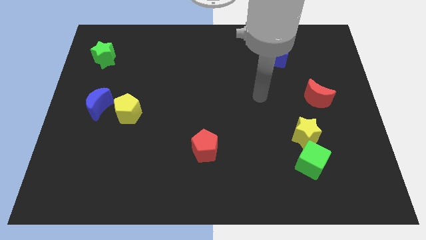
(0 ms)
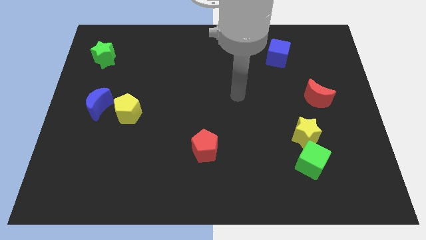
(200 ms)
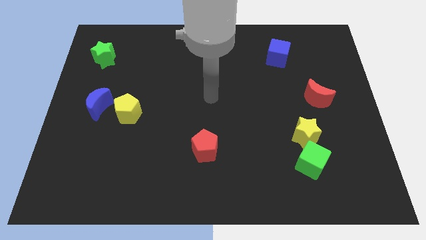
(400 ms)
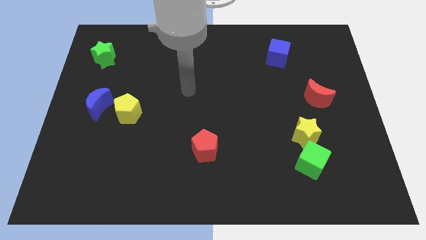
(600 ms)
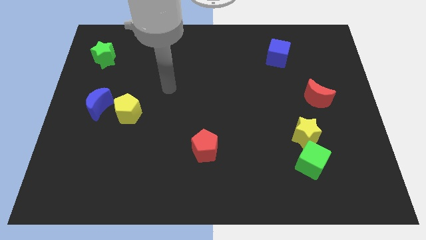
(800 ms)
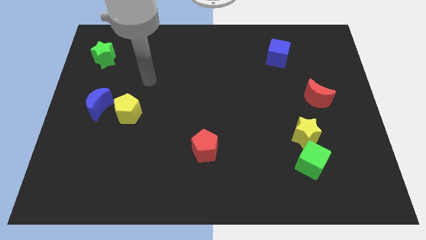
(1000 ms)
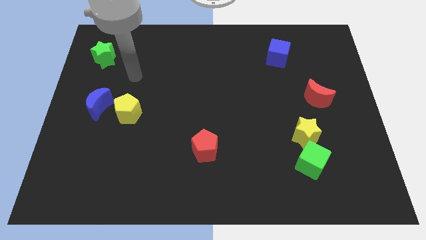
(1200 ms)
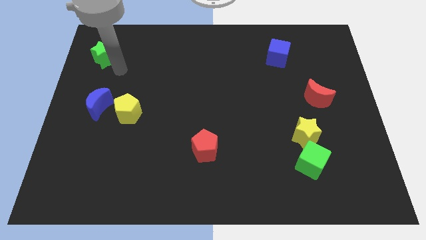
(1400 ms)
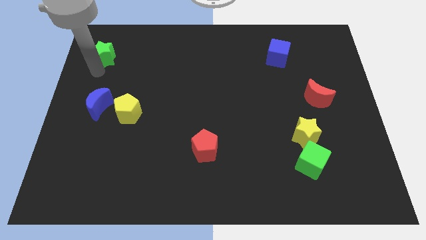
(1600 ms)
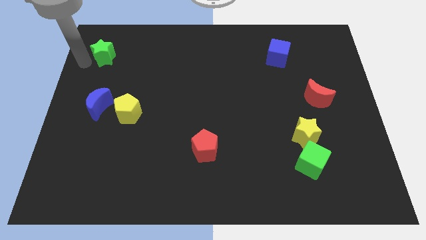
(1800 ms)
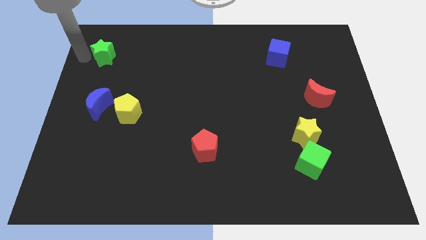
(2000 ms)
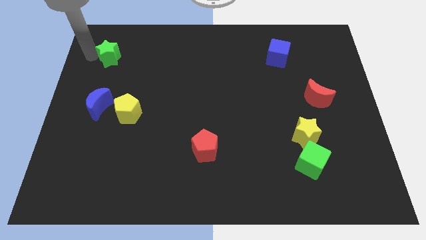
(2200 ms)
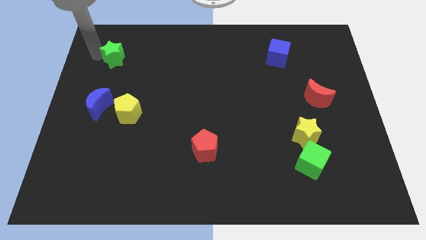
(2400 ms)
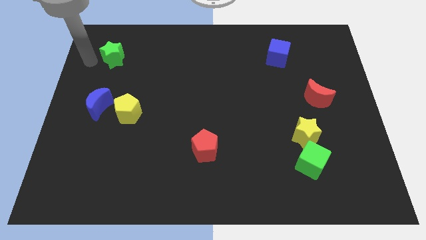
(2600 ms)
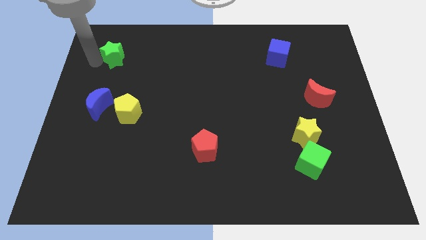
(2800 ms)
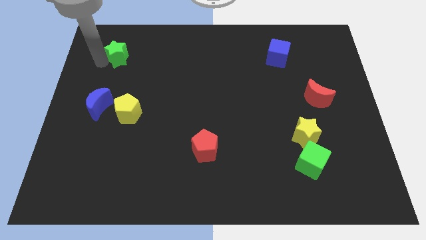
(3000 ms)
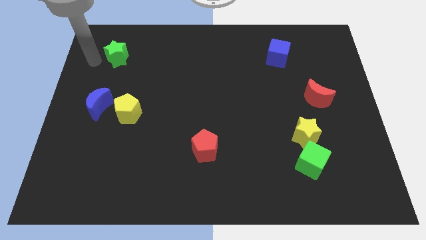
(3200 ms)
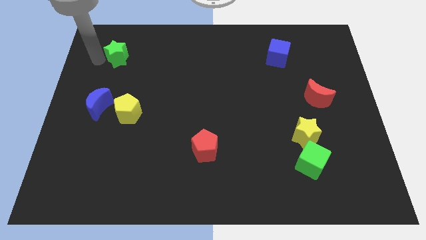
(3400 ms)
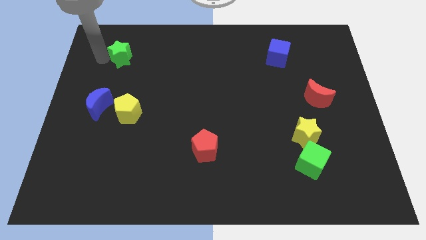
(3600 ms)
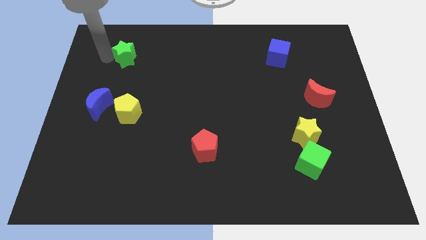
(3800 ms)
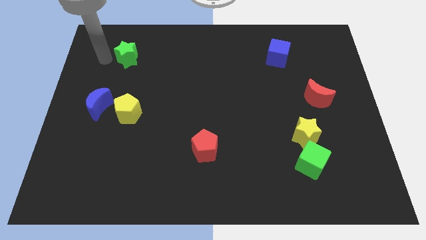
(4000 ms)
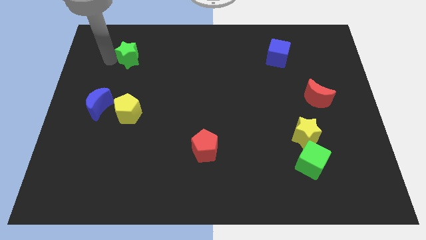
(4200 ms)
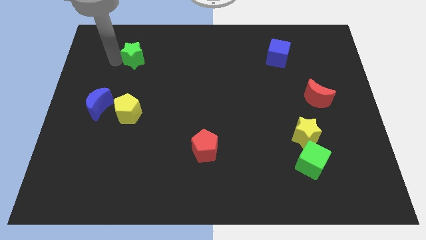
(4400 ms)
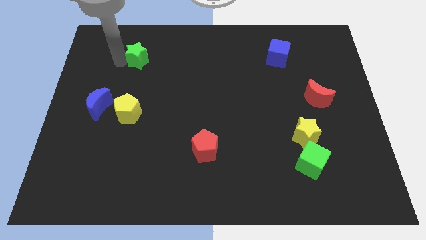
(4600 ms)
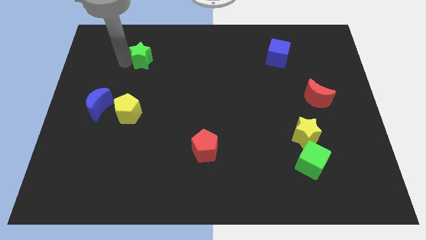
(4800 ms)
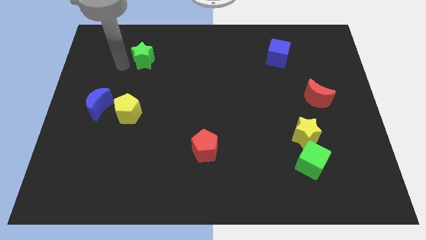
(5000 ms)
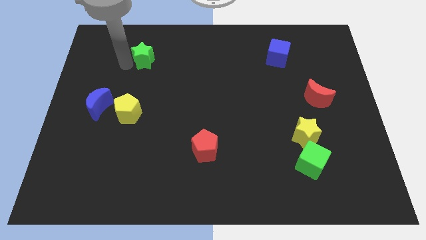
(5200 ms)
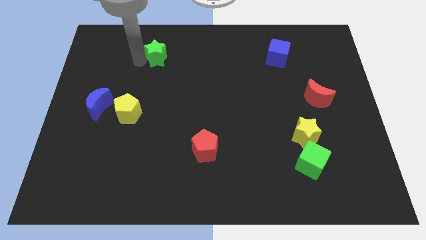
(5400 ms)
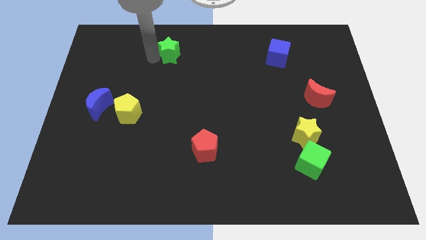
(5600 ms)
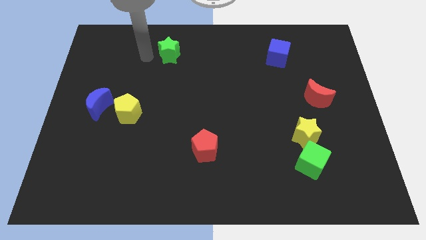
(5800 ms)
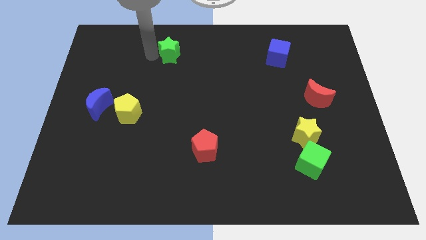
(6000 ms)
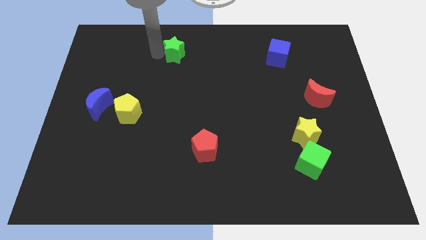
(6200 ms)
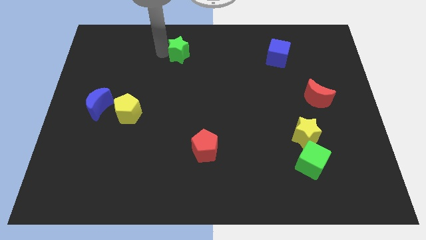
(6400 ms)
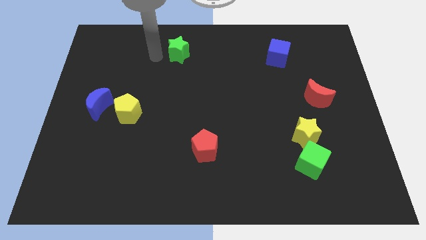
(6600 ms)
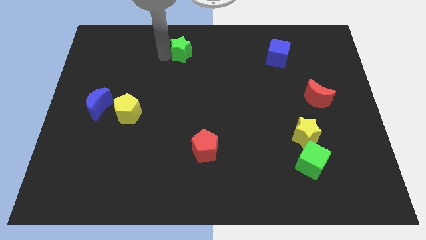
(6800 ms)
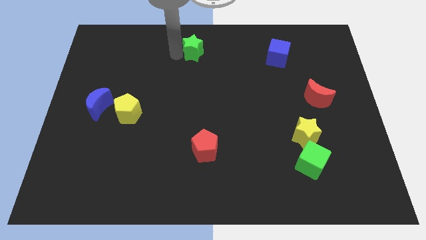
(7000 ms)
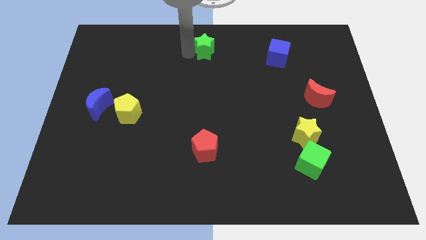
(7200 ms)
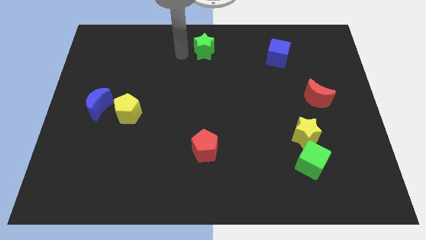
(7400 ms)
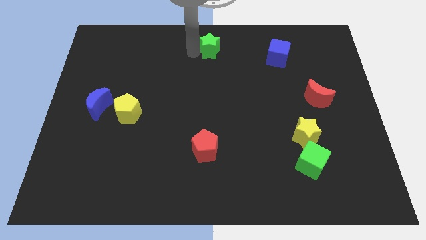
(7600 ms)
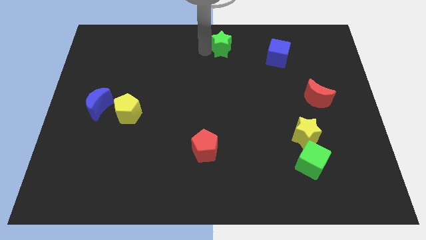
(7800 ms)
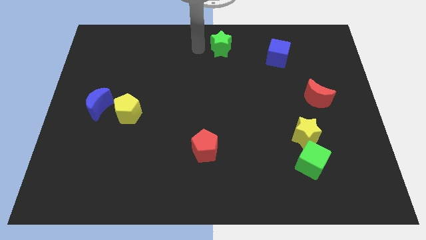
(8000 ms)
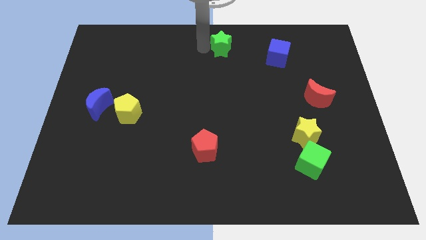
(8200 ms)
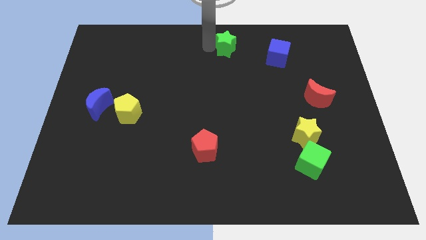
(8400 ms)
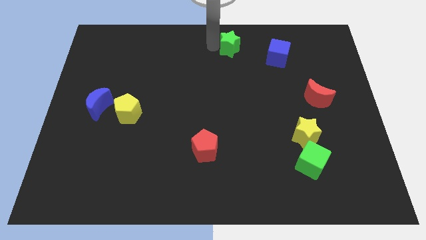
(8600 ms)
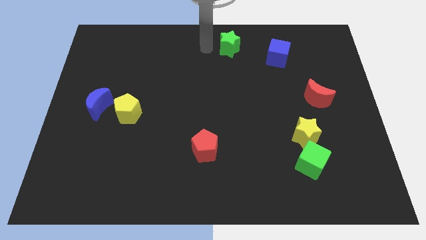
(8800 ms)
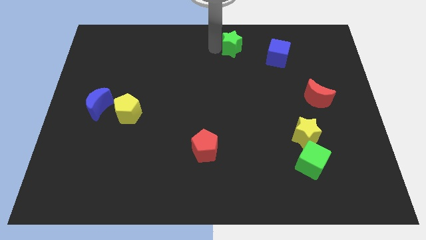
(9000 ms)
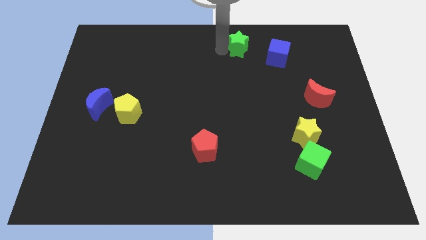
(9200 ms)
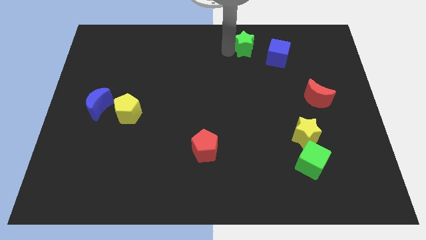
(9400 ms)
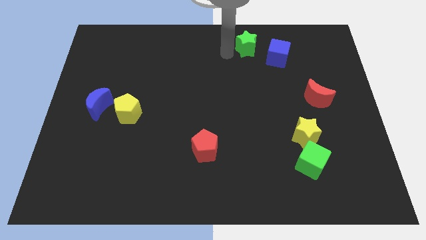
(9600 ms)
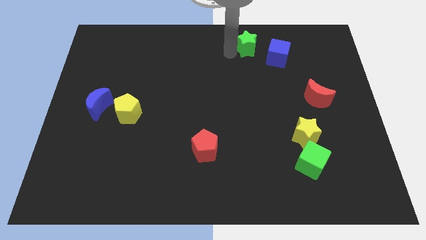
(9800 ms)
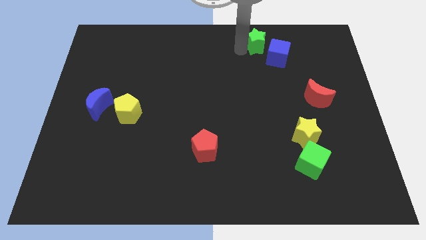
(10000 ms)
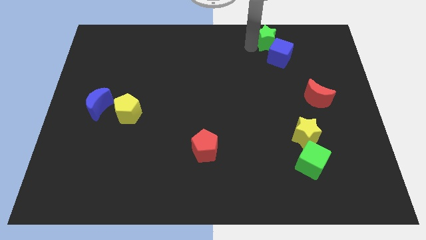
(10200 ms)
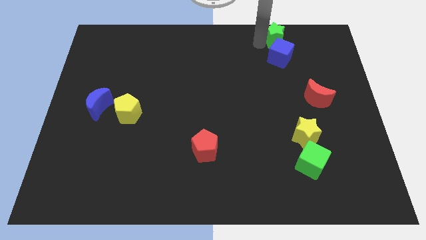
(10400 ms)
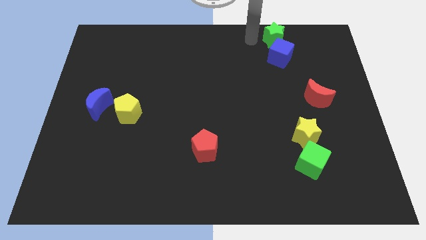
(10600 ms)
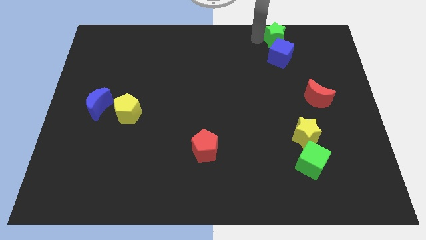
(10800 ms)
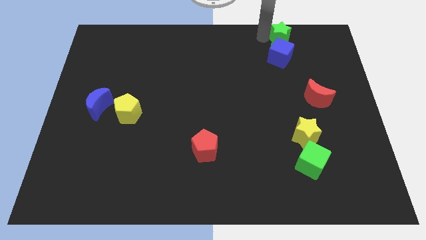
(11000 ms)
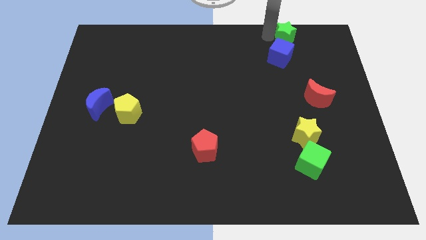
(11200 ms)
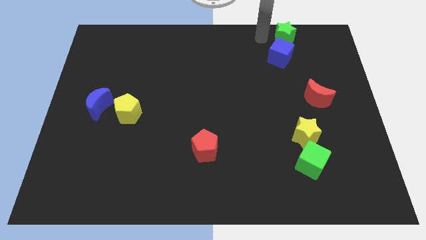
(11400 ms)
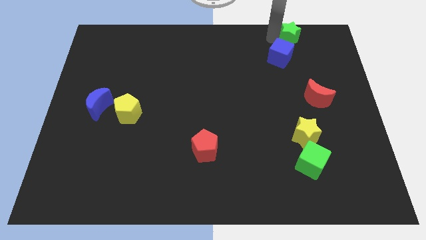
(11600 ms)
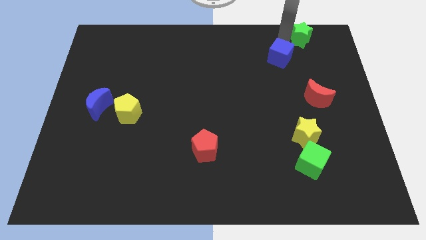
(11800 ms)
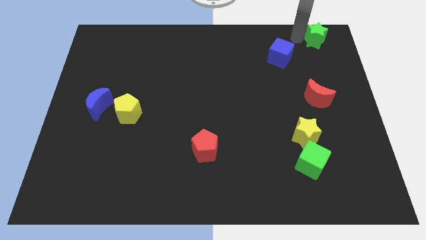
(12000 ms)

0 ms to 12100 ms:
move the green star to the top right of the board

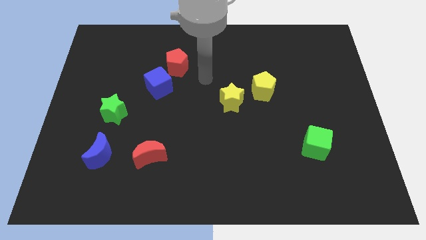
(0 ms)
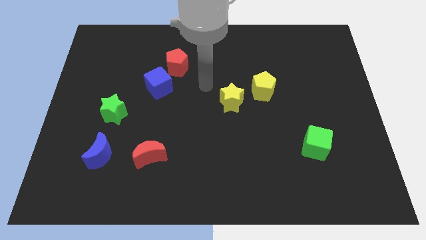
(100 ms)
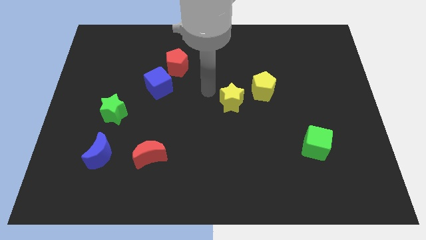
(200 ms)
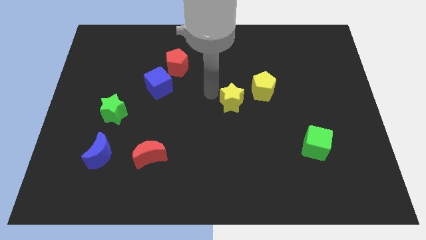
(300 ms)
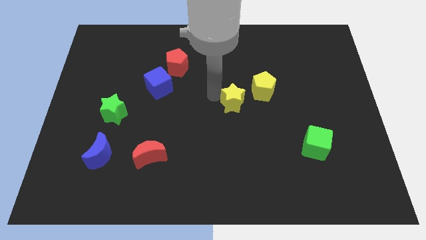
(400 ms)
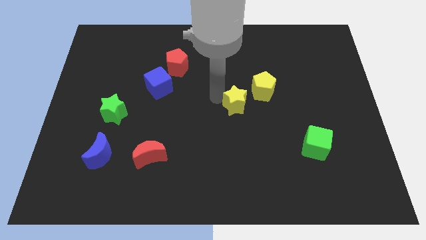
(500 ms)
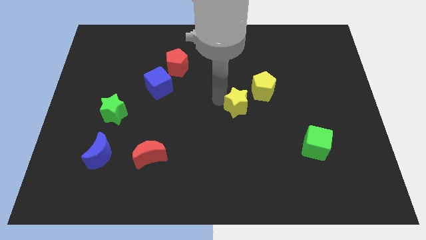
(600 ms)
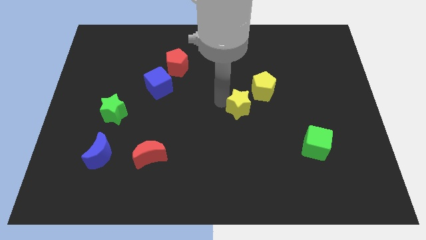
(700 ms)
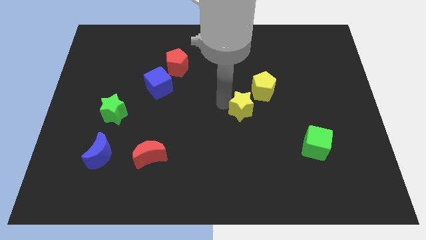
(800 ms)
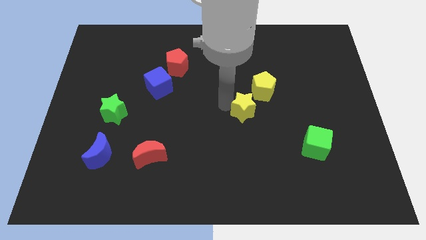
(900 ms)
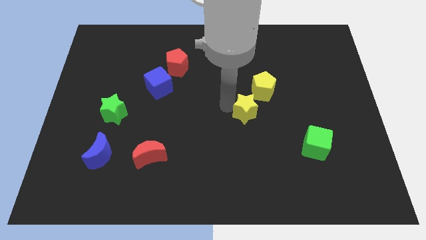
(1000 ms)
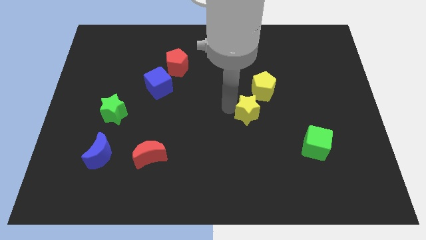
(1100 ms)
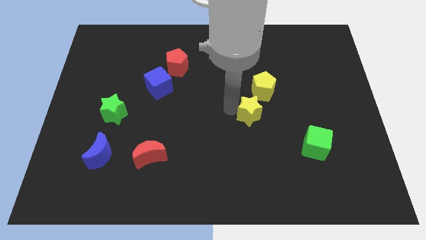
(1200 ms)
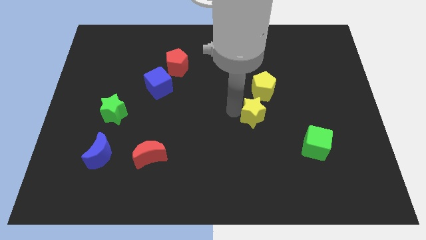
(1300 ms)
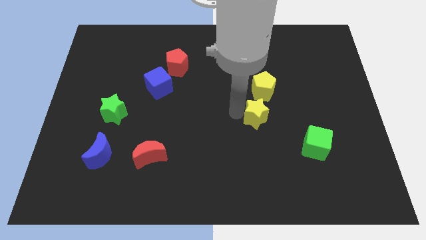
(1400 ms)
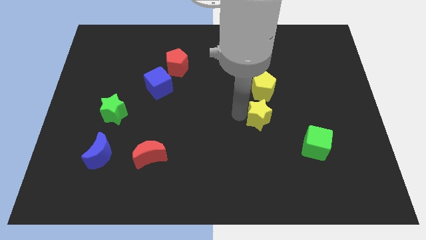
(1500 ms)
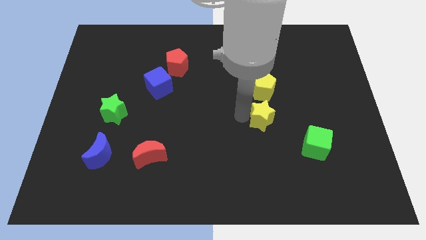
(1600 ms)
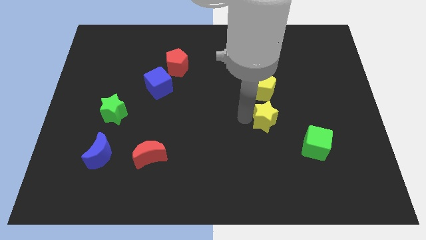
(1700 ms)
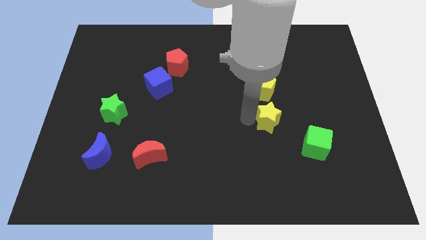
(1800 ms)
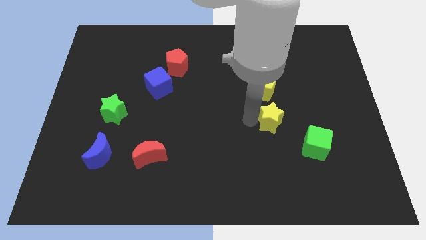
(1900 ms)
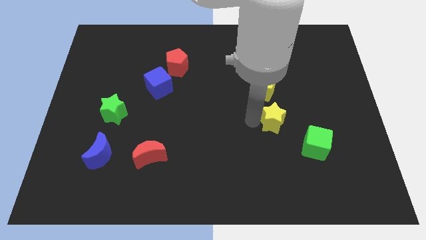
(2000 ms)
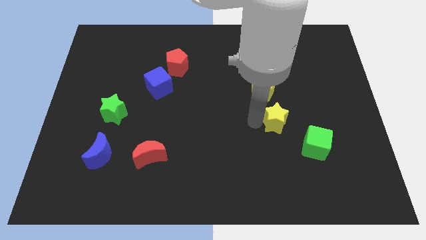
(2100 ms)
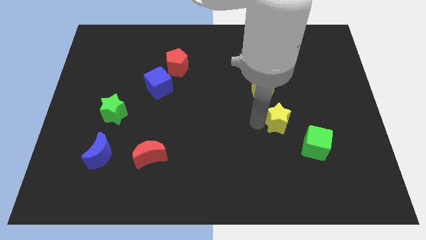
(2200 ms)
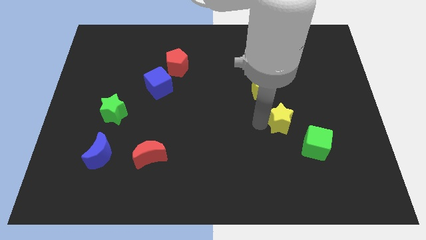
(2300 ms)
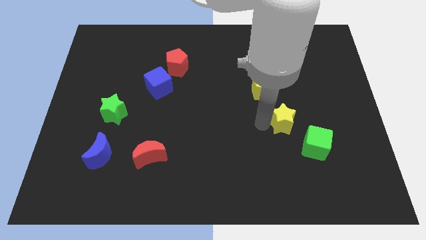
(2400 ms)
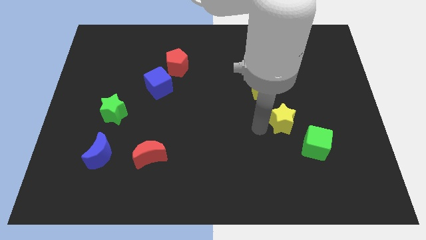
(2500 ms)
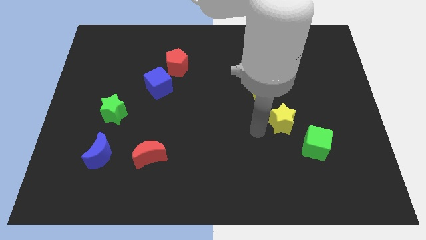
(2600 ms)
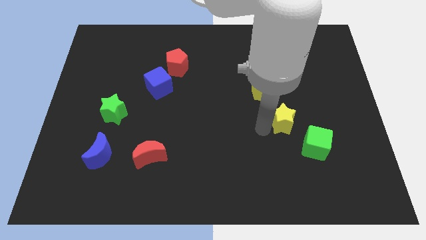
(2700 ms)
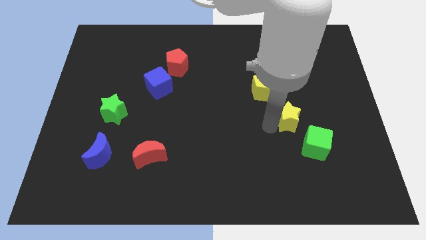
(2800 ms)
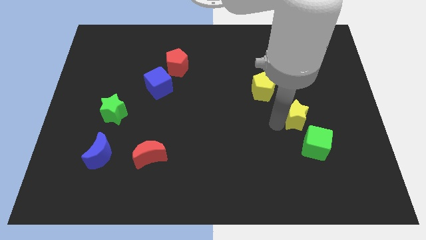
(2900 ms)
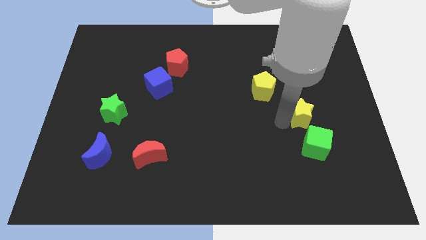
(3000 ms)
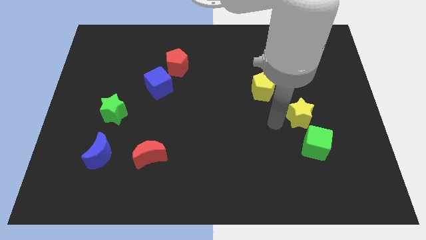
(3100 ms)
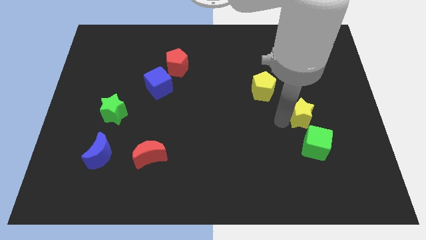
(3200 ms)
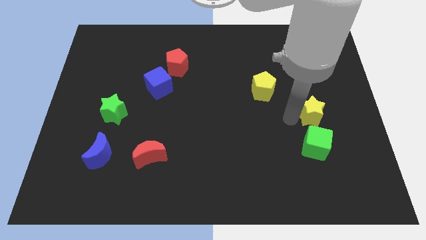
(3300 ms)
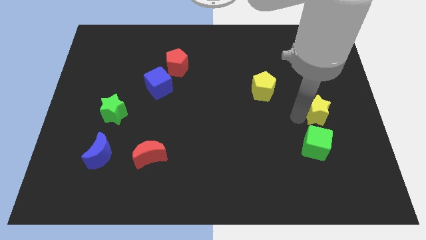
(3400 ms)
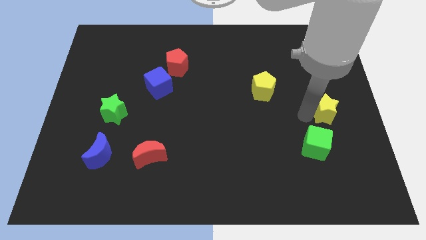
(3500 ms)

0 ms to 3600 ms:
put the yellow star to the center right
